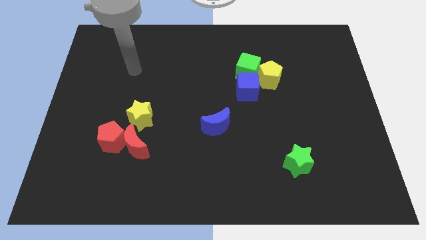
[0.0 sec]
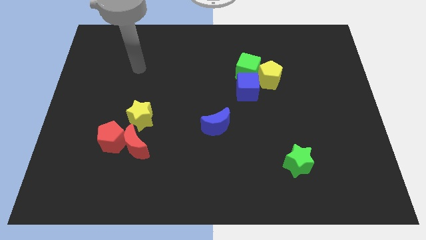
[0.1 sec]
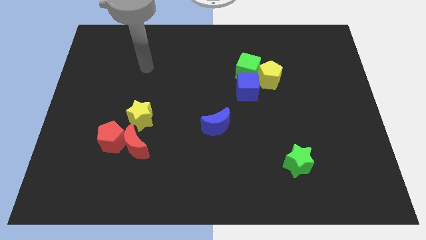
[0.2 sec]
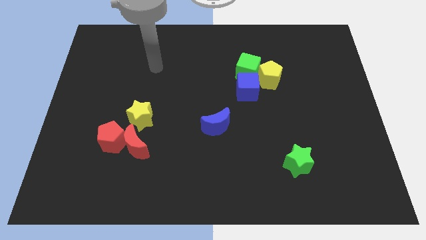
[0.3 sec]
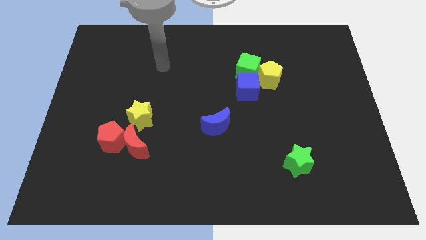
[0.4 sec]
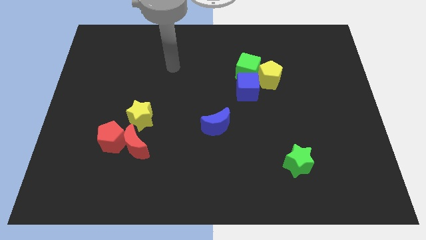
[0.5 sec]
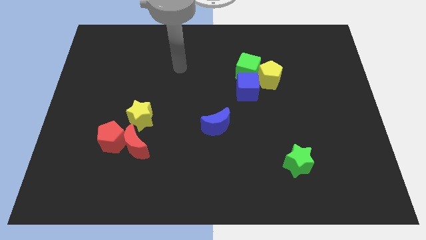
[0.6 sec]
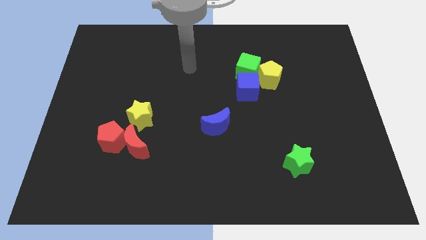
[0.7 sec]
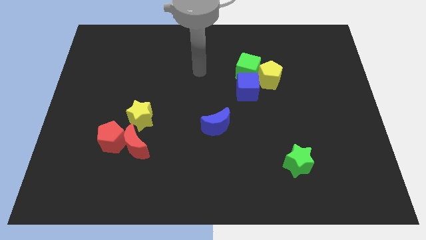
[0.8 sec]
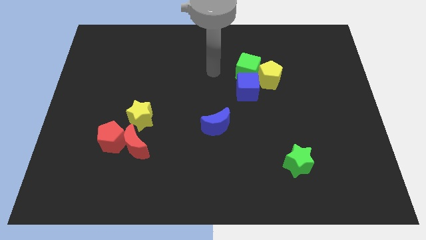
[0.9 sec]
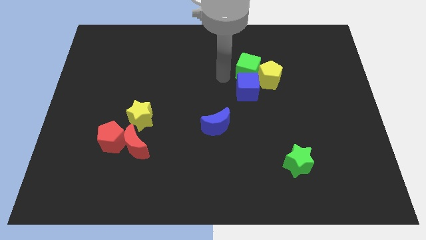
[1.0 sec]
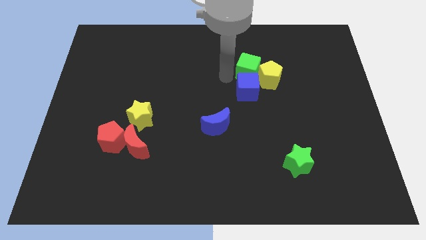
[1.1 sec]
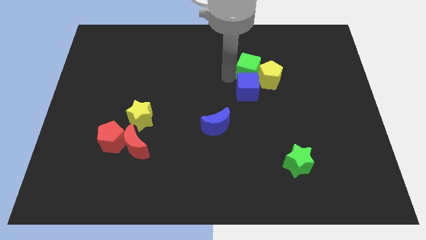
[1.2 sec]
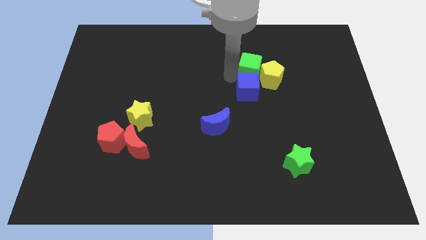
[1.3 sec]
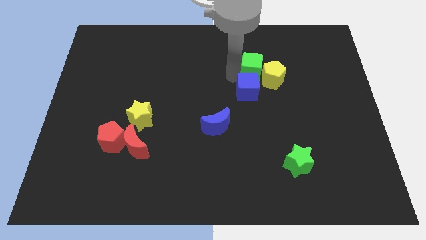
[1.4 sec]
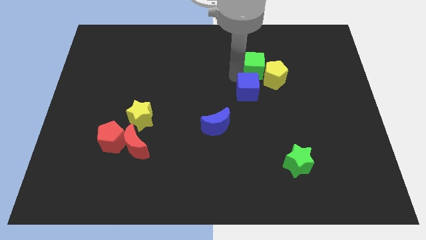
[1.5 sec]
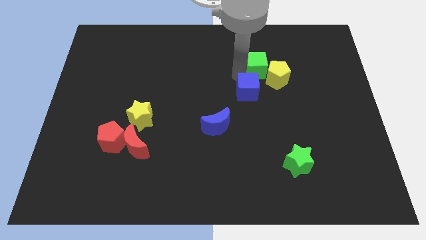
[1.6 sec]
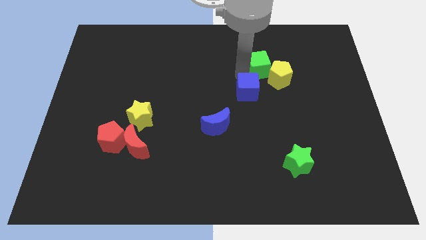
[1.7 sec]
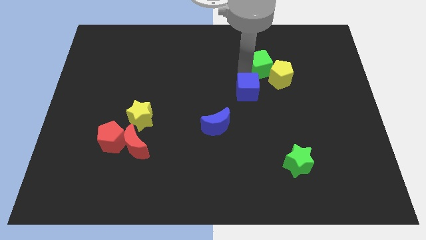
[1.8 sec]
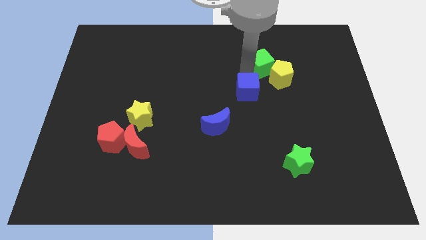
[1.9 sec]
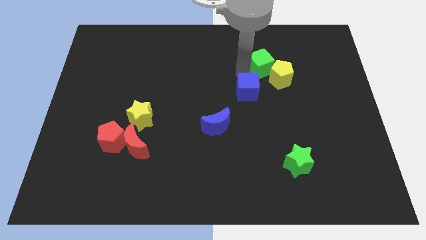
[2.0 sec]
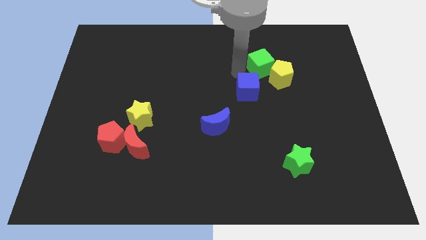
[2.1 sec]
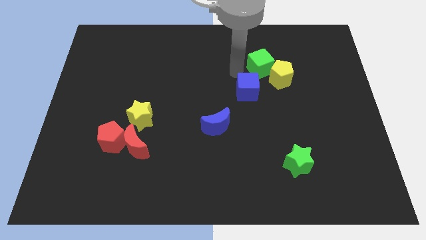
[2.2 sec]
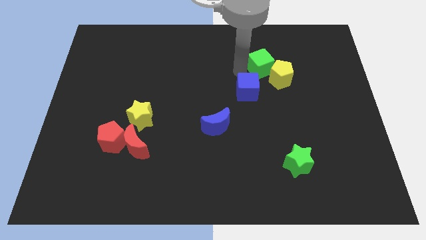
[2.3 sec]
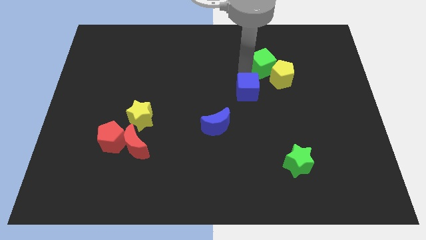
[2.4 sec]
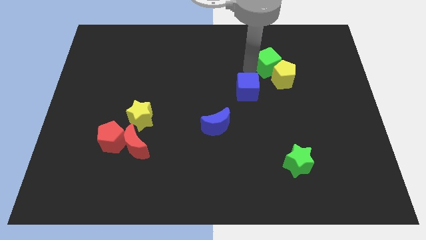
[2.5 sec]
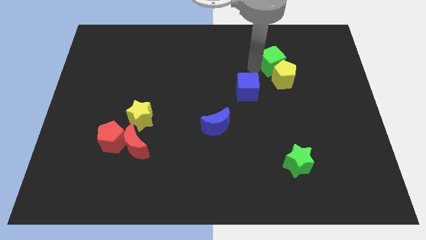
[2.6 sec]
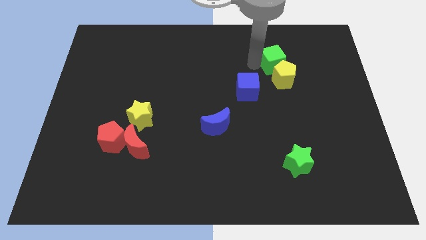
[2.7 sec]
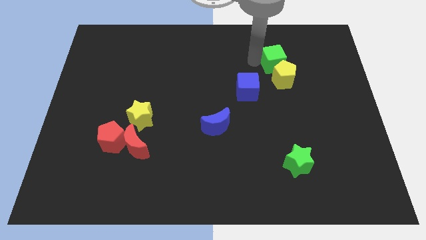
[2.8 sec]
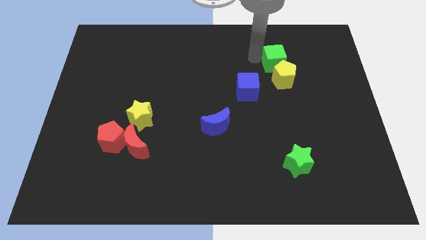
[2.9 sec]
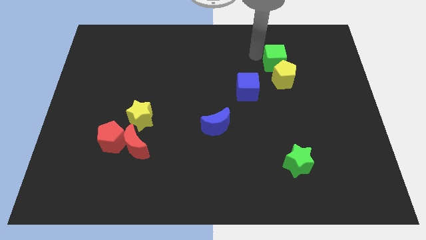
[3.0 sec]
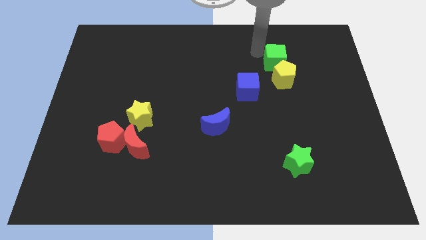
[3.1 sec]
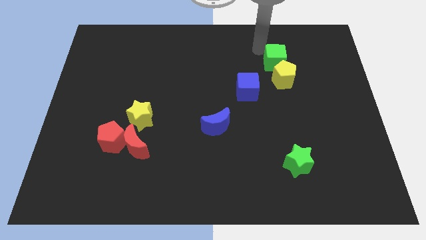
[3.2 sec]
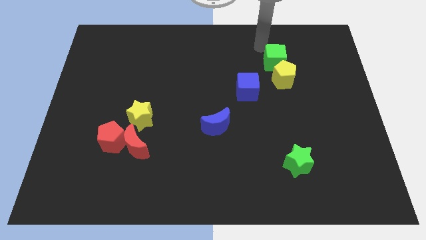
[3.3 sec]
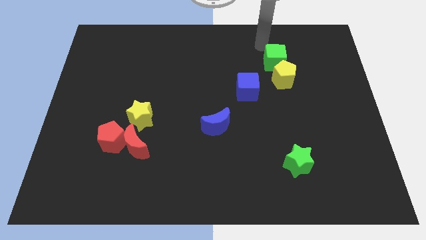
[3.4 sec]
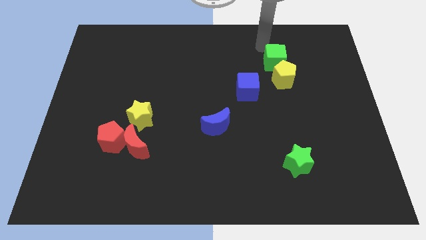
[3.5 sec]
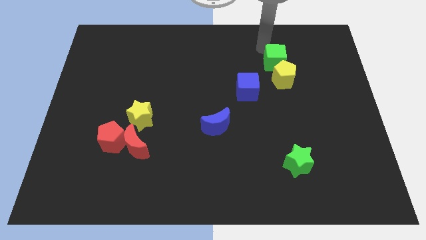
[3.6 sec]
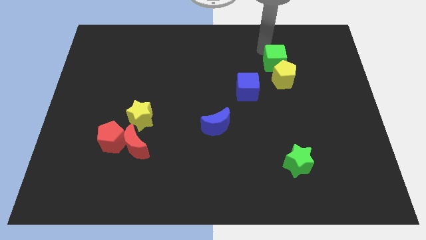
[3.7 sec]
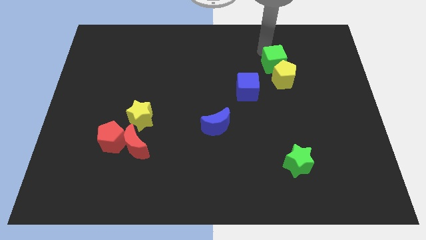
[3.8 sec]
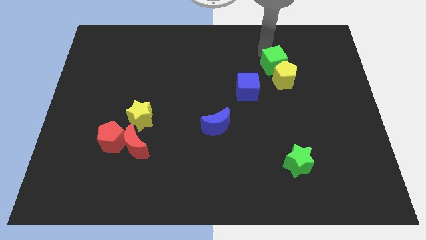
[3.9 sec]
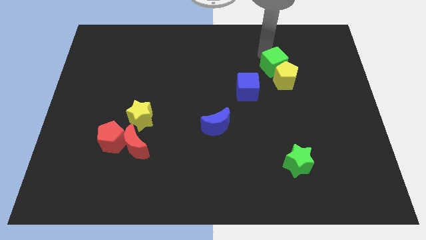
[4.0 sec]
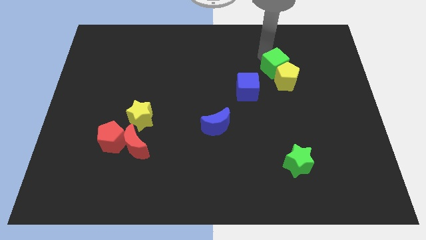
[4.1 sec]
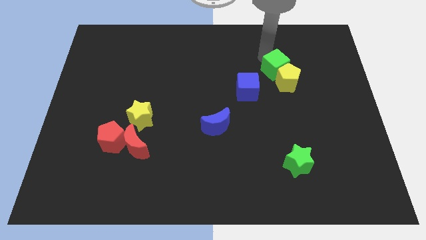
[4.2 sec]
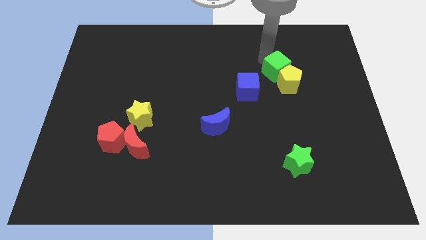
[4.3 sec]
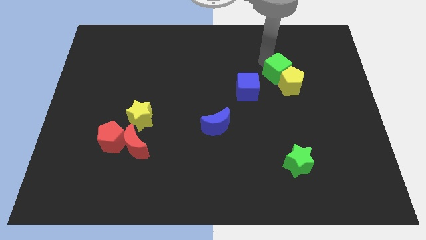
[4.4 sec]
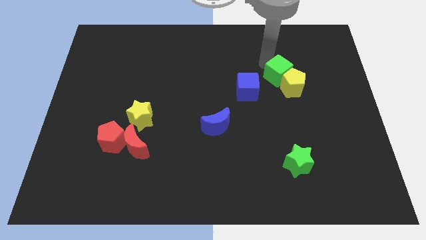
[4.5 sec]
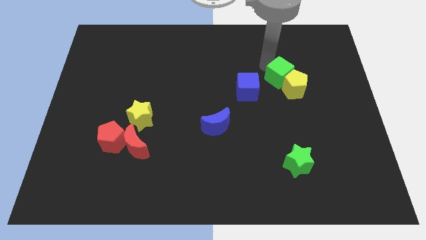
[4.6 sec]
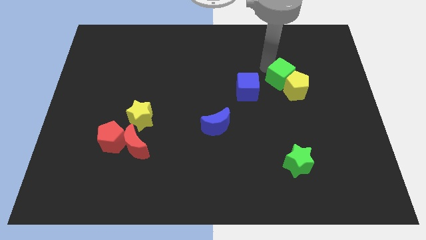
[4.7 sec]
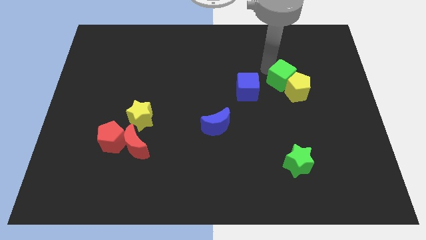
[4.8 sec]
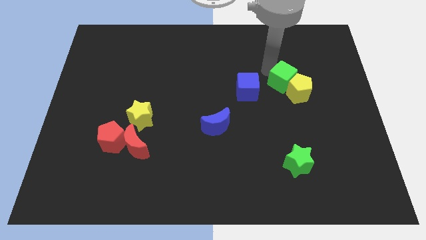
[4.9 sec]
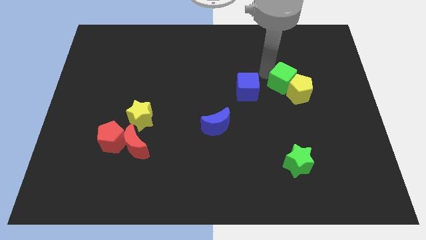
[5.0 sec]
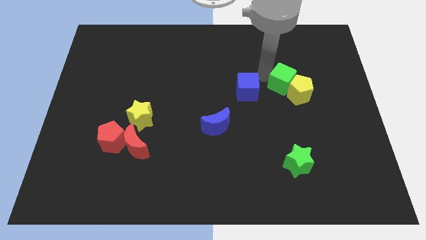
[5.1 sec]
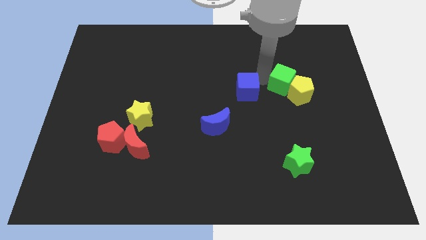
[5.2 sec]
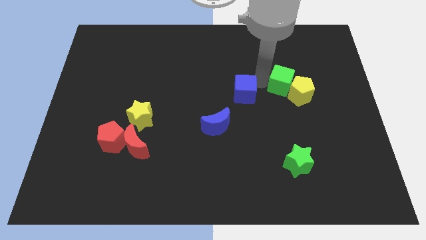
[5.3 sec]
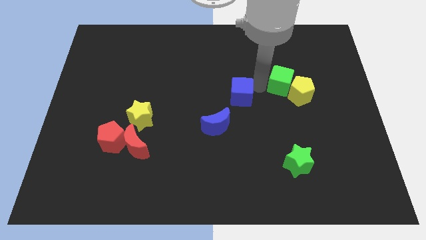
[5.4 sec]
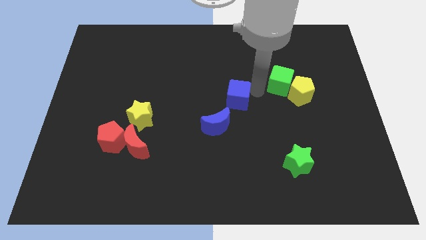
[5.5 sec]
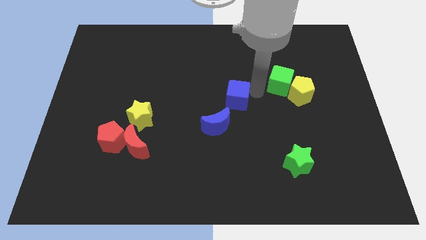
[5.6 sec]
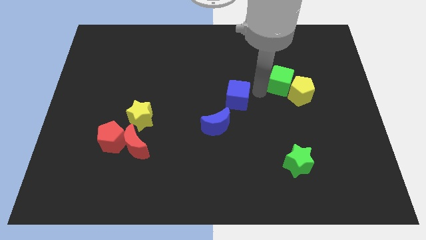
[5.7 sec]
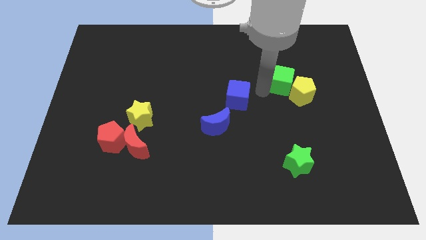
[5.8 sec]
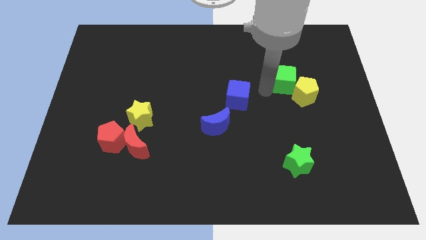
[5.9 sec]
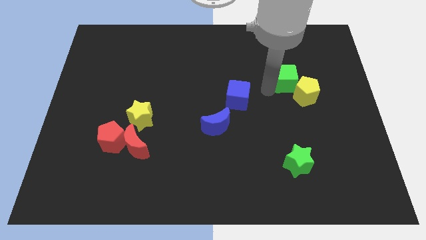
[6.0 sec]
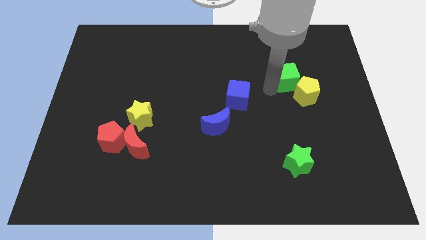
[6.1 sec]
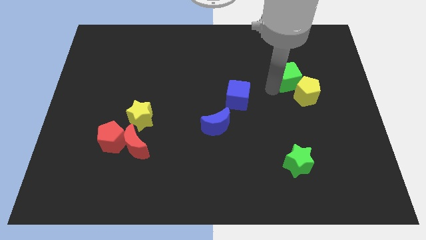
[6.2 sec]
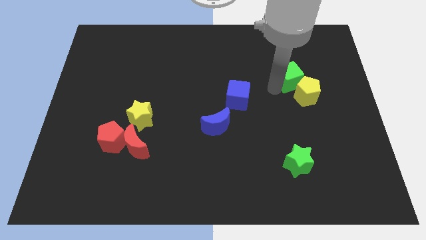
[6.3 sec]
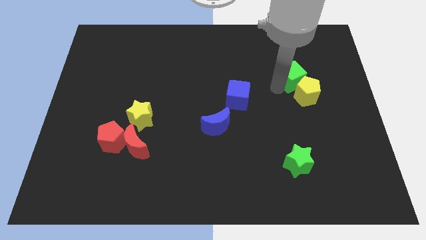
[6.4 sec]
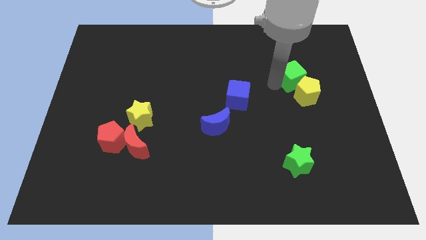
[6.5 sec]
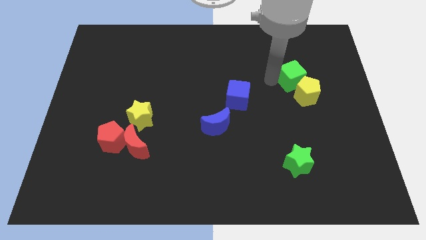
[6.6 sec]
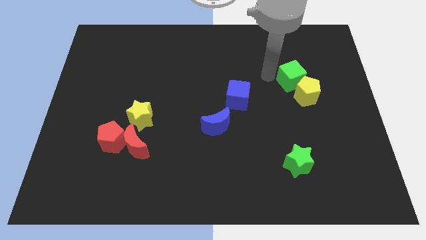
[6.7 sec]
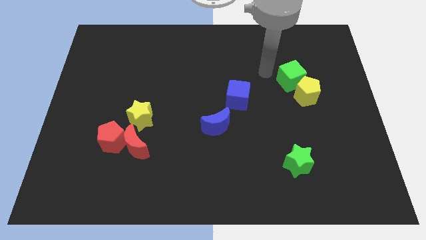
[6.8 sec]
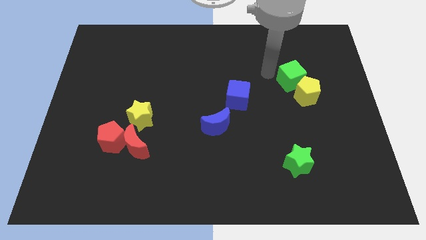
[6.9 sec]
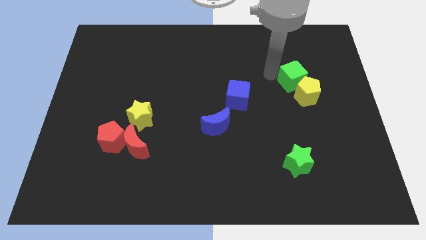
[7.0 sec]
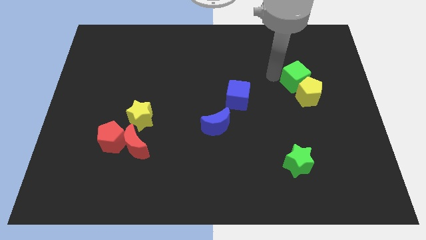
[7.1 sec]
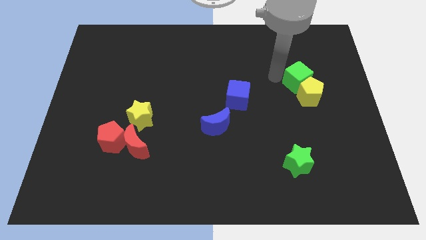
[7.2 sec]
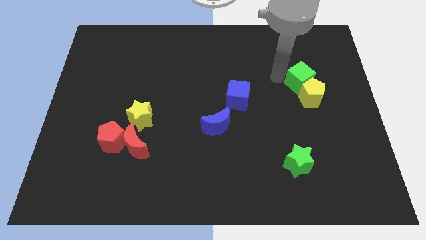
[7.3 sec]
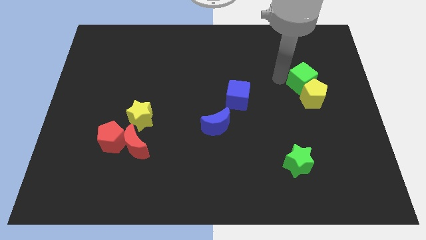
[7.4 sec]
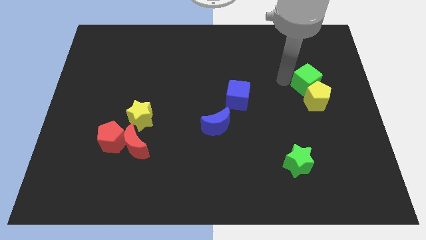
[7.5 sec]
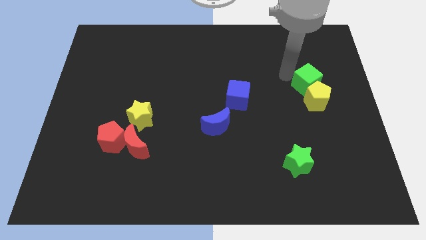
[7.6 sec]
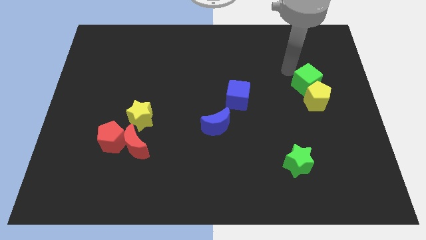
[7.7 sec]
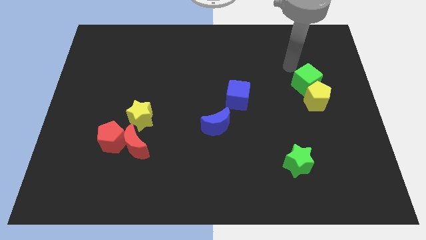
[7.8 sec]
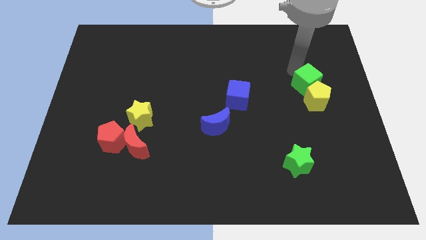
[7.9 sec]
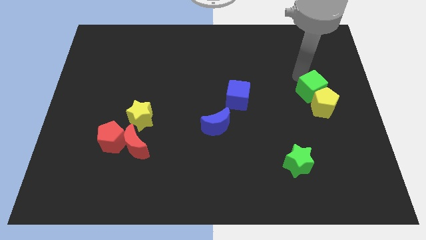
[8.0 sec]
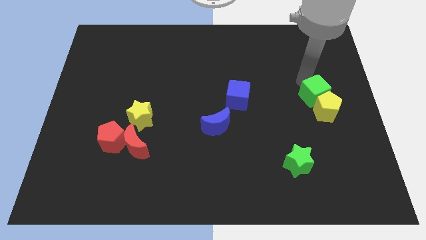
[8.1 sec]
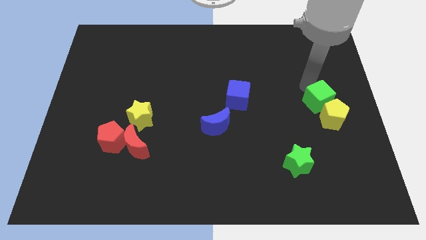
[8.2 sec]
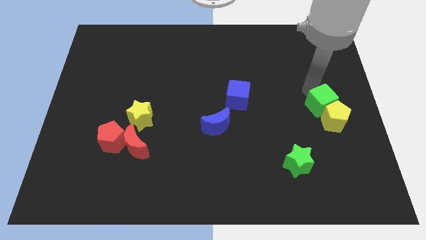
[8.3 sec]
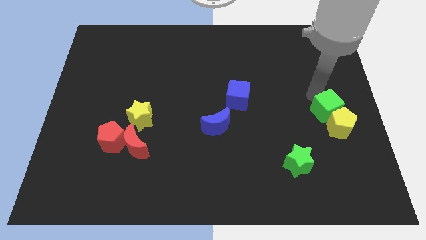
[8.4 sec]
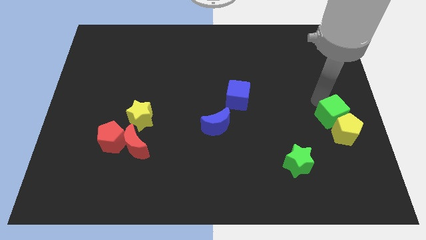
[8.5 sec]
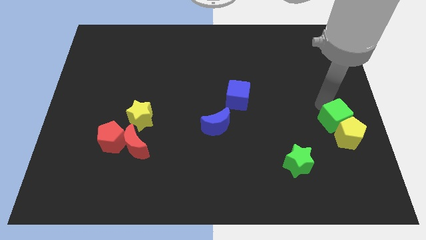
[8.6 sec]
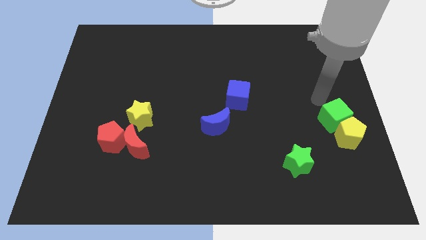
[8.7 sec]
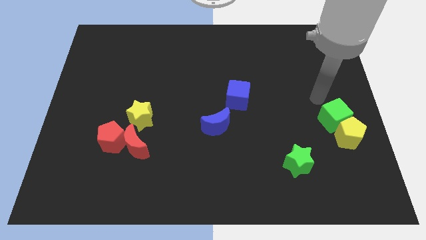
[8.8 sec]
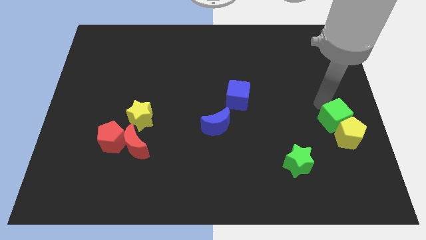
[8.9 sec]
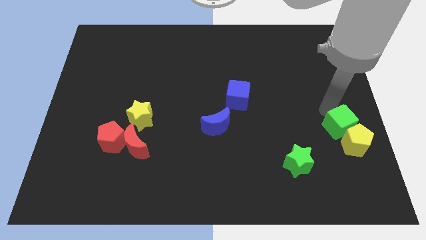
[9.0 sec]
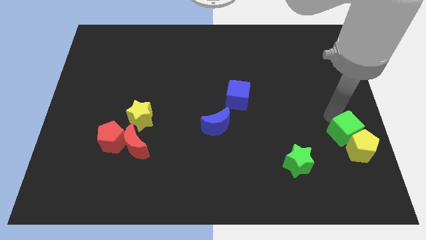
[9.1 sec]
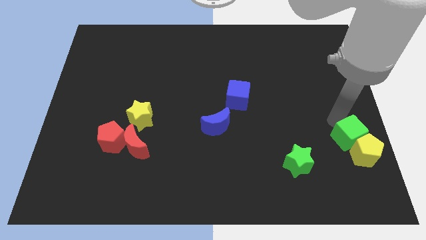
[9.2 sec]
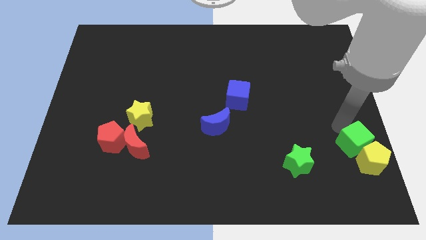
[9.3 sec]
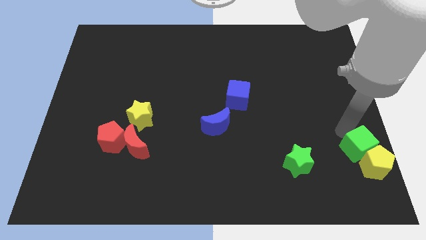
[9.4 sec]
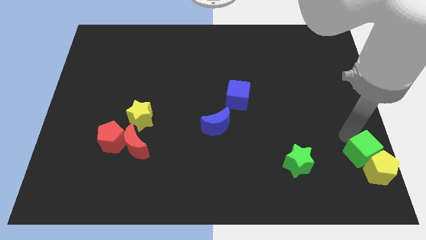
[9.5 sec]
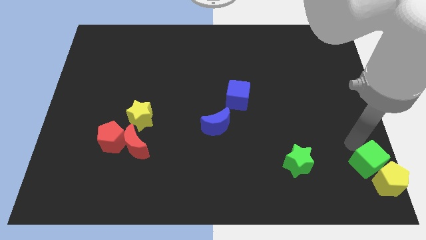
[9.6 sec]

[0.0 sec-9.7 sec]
slide the green cube to the bottom right of the board
